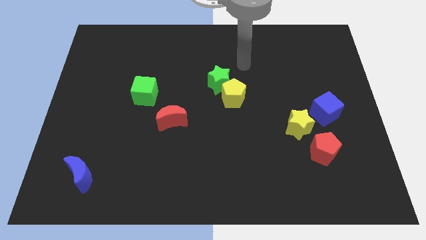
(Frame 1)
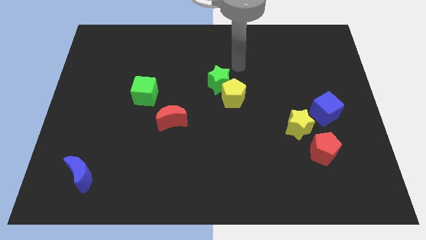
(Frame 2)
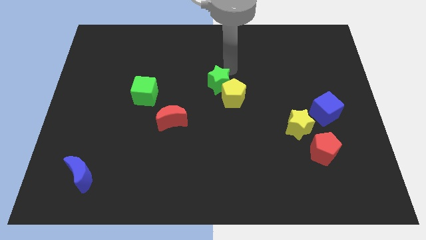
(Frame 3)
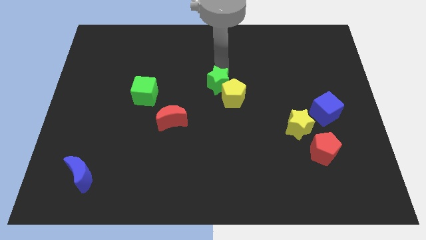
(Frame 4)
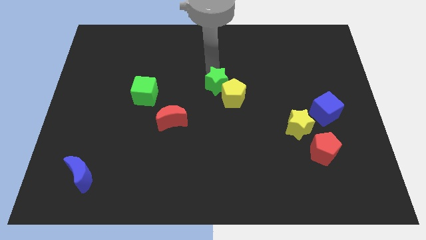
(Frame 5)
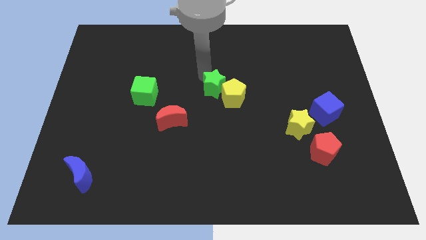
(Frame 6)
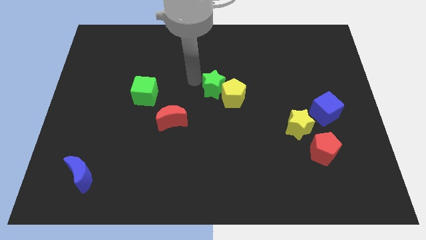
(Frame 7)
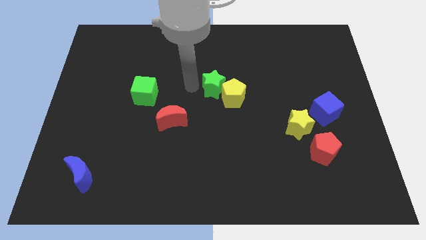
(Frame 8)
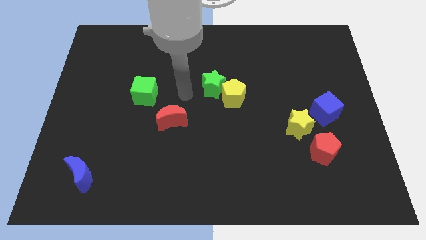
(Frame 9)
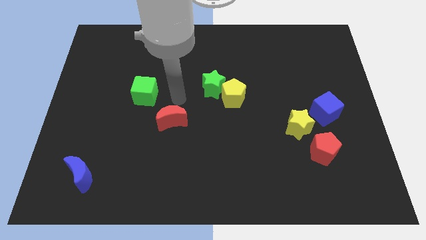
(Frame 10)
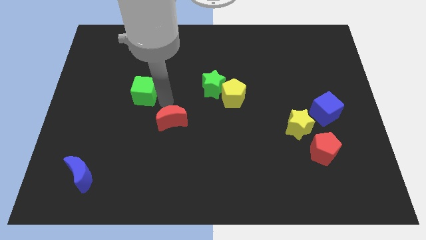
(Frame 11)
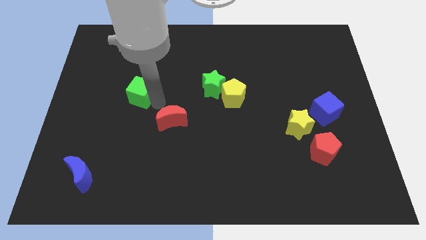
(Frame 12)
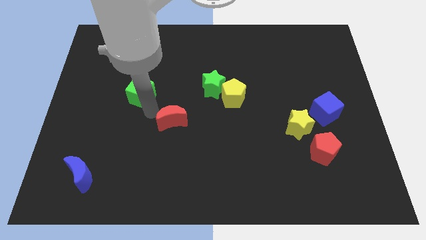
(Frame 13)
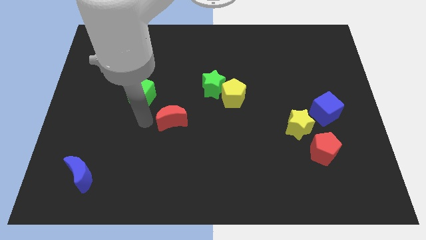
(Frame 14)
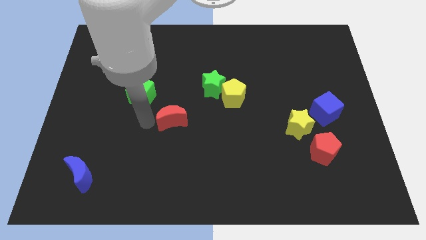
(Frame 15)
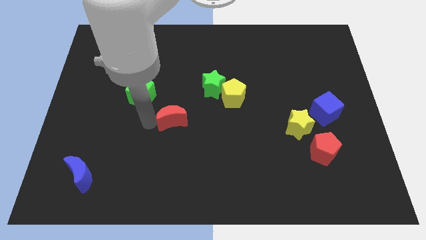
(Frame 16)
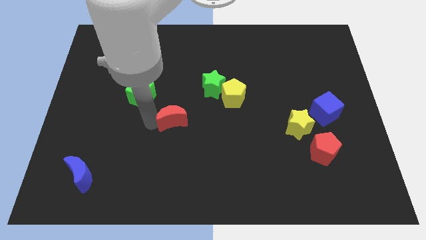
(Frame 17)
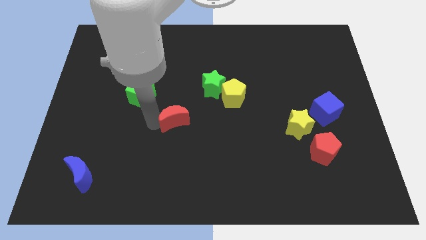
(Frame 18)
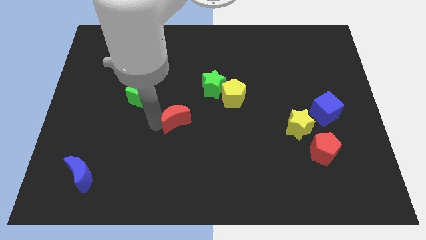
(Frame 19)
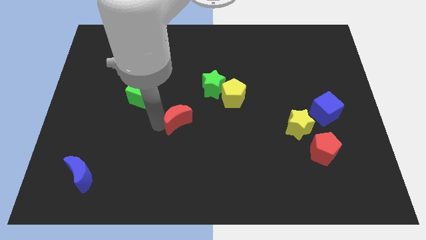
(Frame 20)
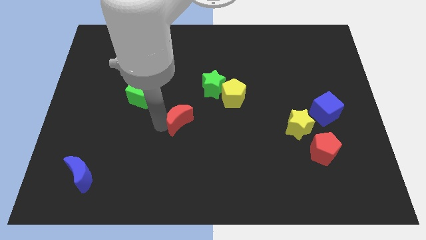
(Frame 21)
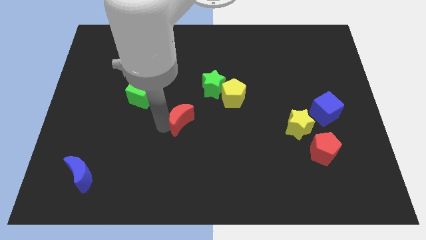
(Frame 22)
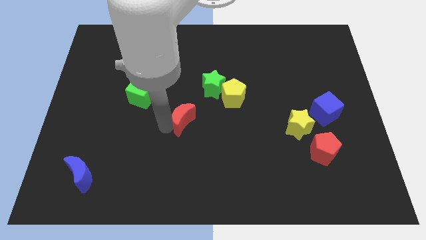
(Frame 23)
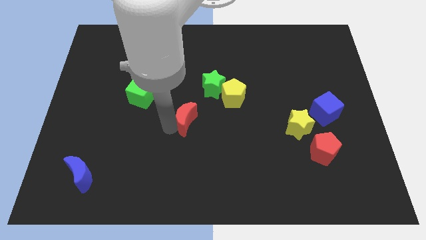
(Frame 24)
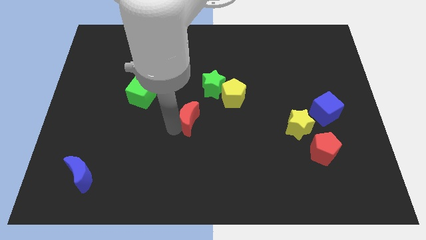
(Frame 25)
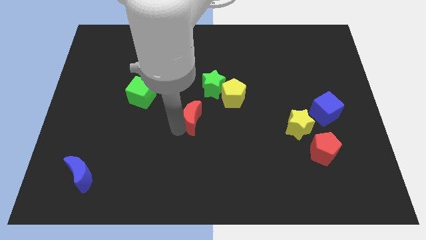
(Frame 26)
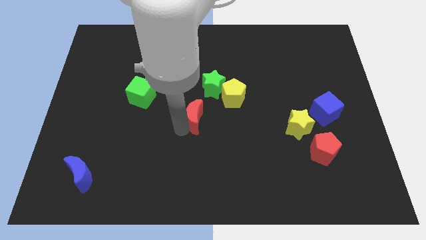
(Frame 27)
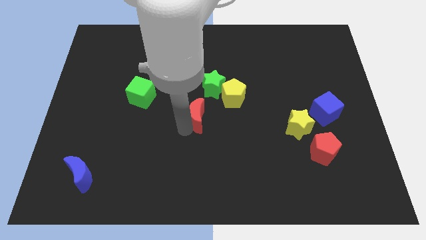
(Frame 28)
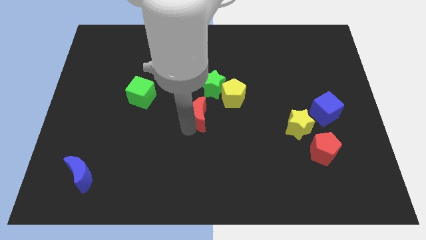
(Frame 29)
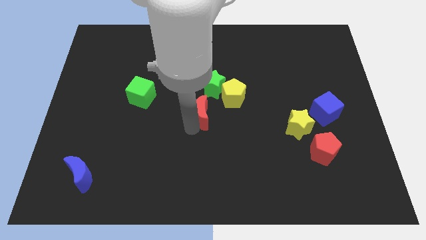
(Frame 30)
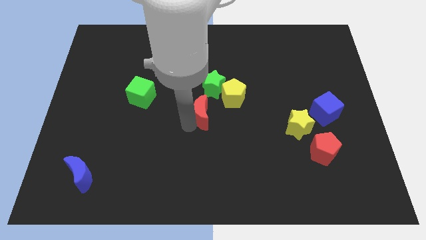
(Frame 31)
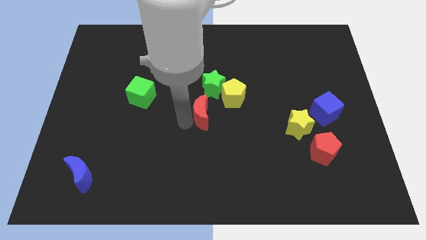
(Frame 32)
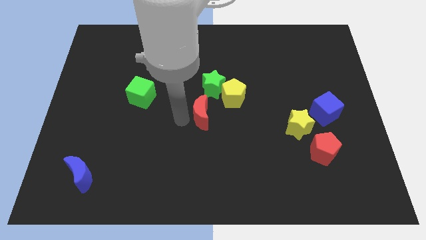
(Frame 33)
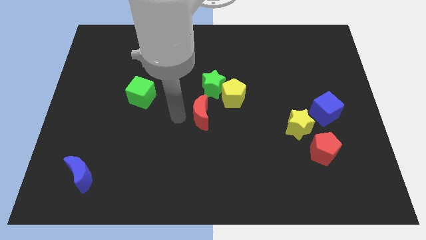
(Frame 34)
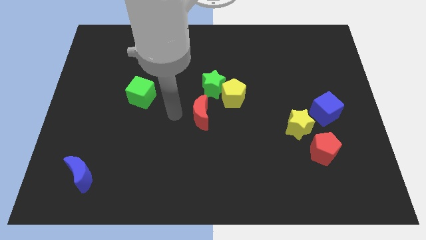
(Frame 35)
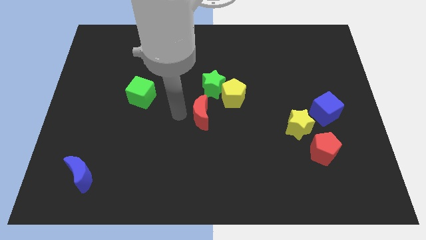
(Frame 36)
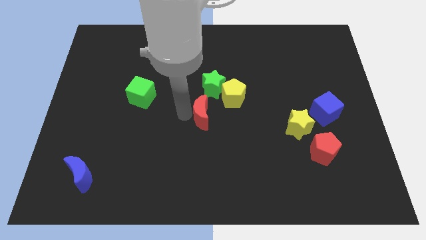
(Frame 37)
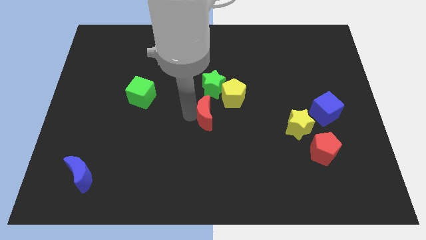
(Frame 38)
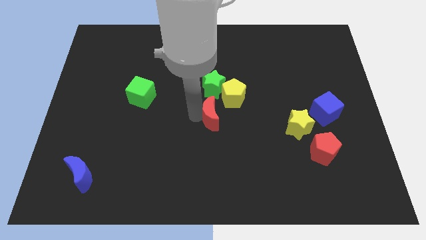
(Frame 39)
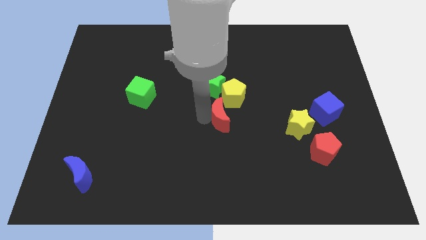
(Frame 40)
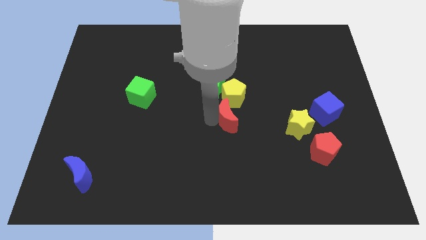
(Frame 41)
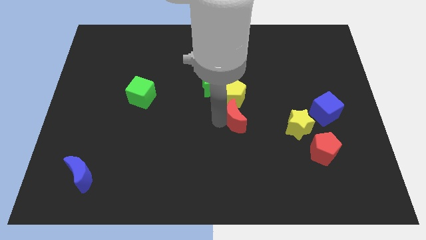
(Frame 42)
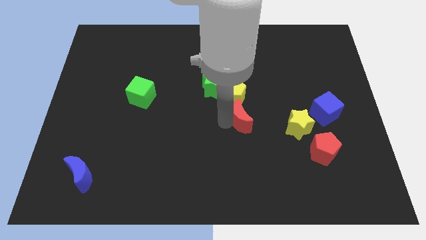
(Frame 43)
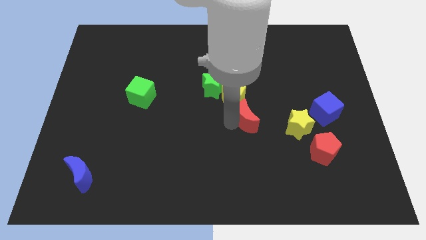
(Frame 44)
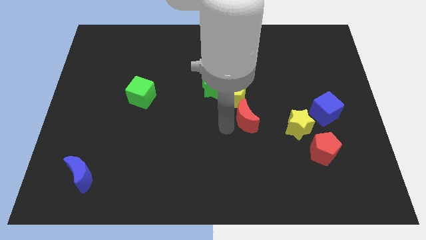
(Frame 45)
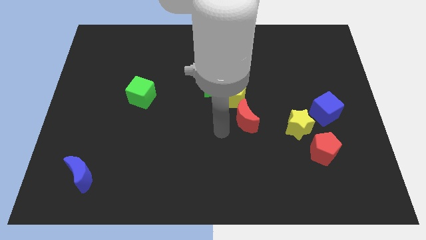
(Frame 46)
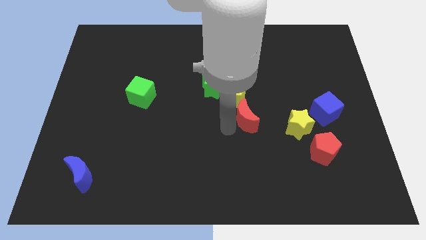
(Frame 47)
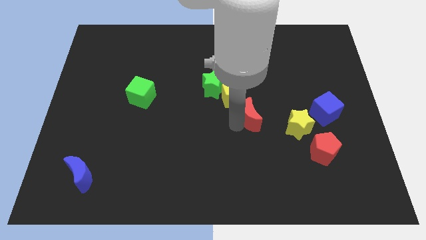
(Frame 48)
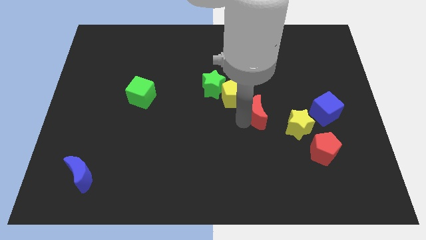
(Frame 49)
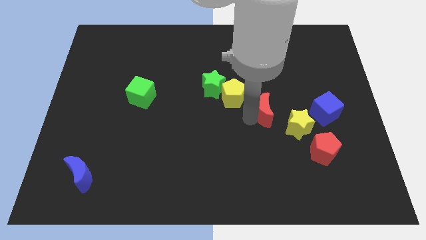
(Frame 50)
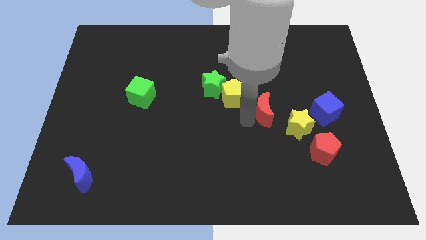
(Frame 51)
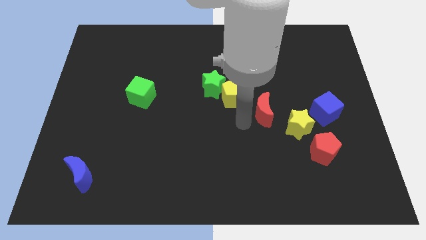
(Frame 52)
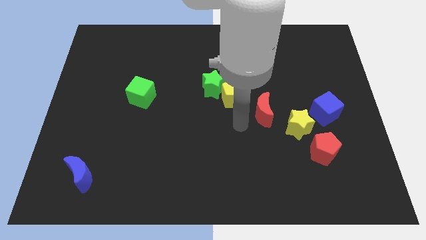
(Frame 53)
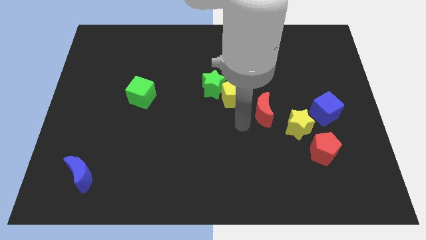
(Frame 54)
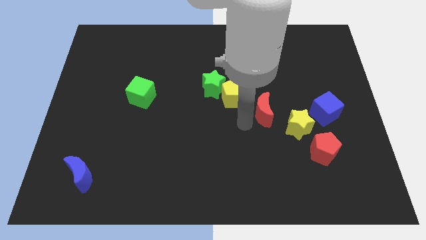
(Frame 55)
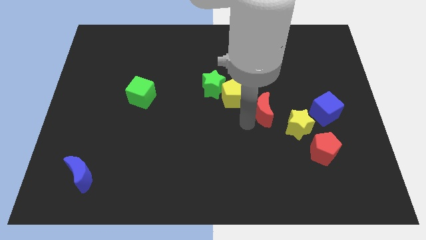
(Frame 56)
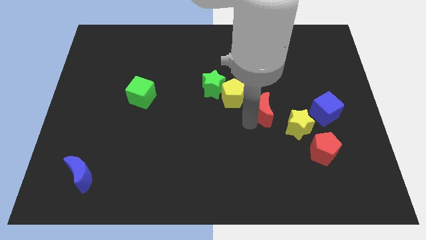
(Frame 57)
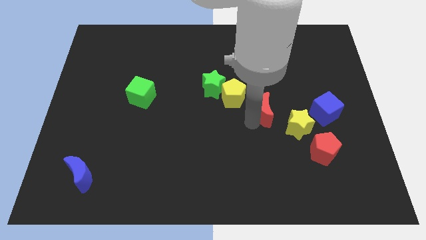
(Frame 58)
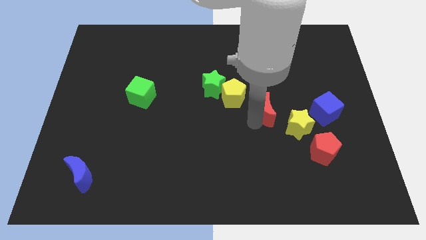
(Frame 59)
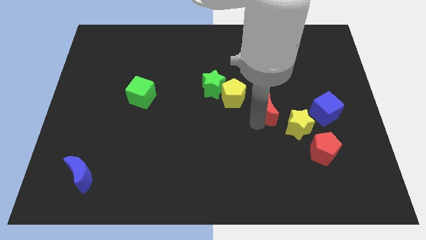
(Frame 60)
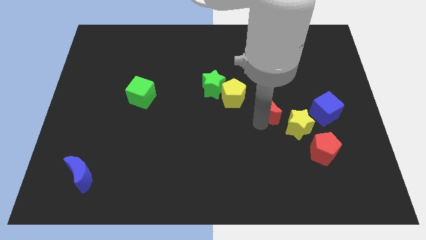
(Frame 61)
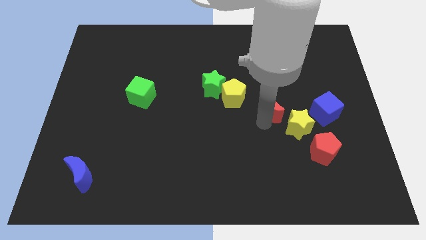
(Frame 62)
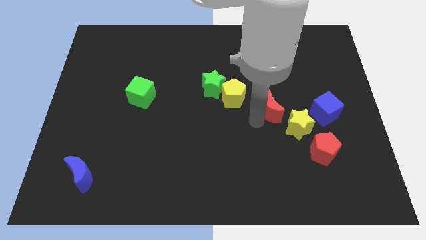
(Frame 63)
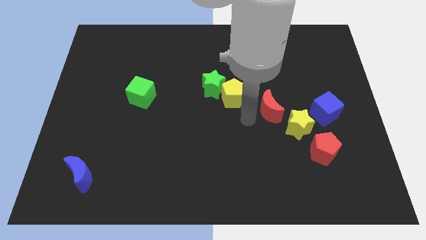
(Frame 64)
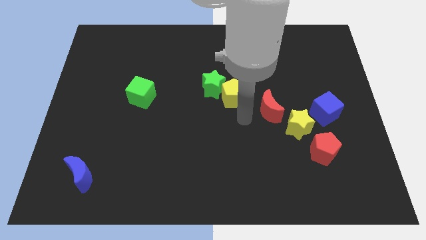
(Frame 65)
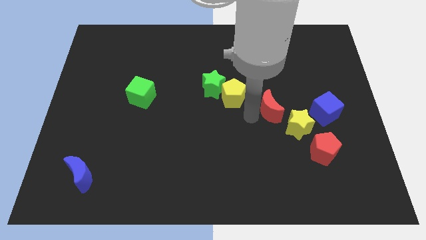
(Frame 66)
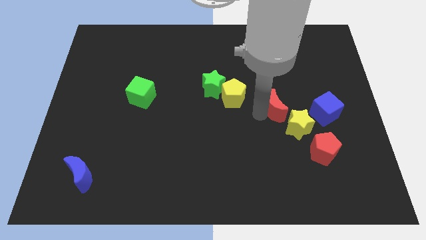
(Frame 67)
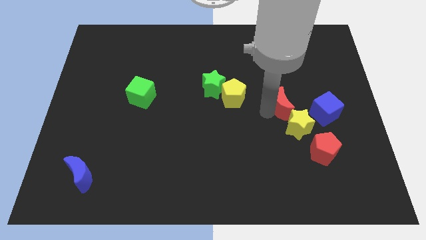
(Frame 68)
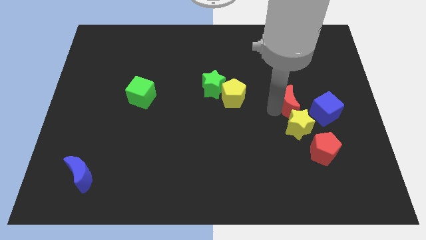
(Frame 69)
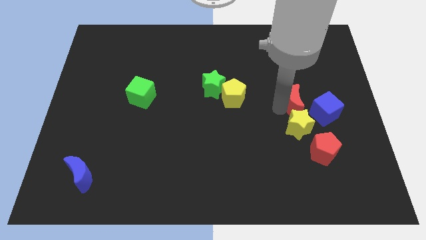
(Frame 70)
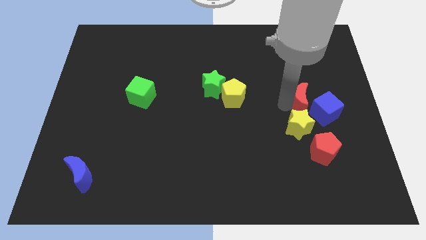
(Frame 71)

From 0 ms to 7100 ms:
move the red moon to the top of the red pentagon
